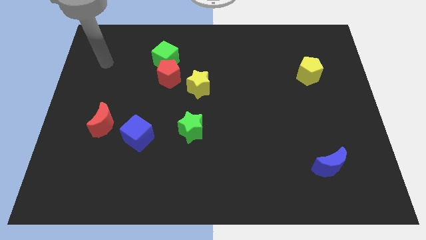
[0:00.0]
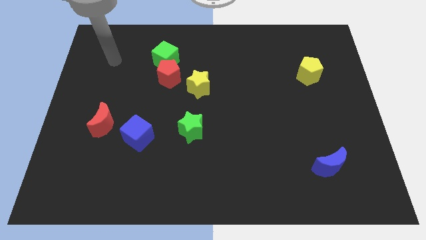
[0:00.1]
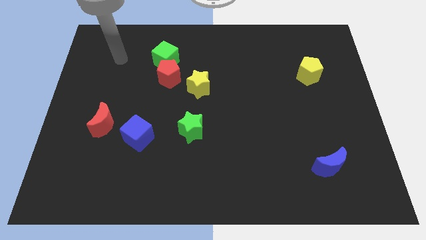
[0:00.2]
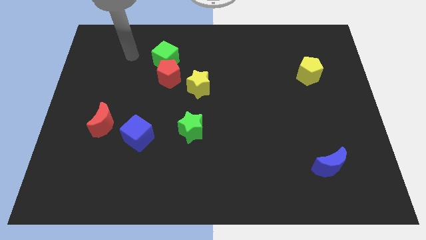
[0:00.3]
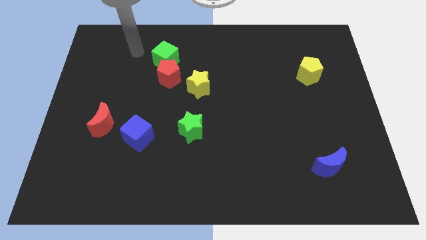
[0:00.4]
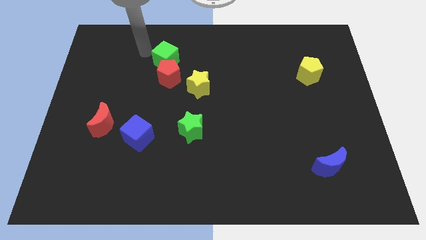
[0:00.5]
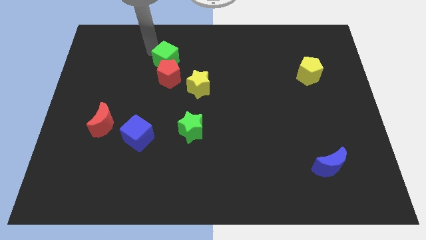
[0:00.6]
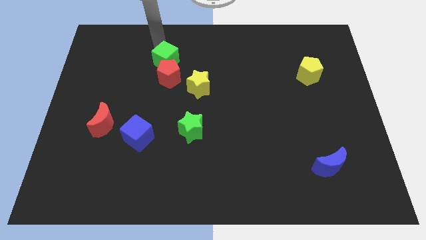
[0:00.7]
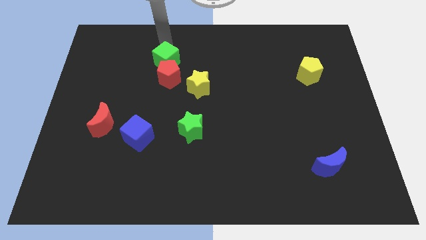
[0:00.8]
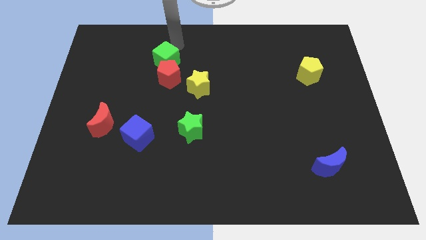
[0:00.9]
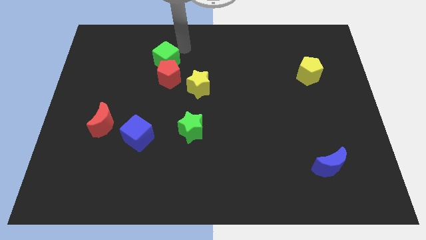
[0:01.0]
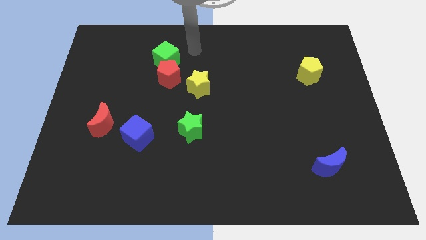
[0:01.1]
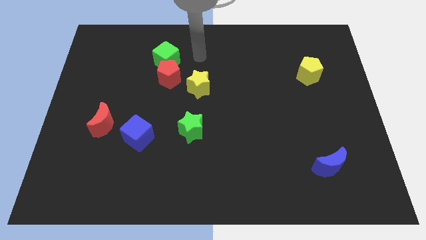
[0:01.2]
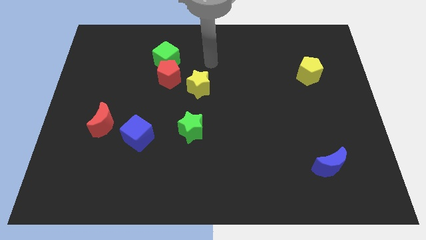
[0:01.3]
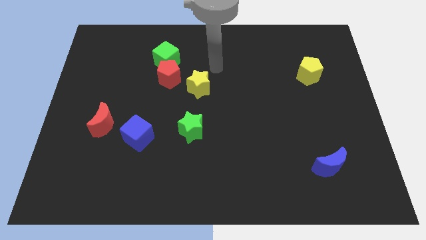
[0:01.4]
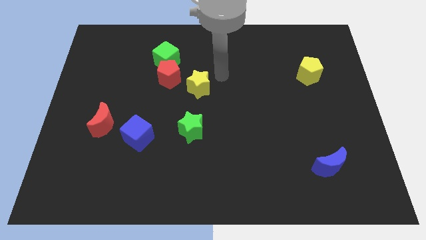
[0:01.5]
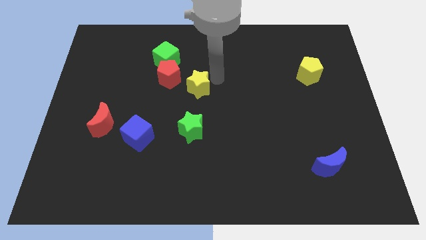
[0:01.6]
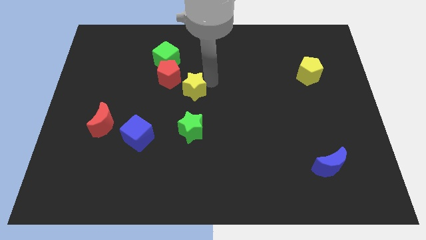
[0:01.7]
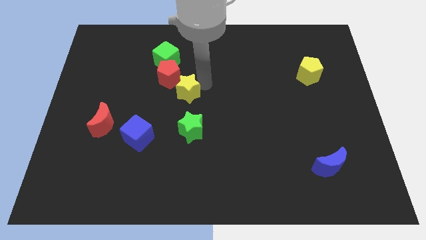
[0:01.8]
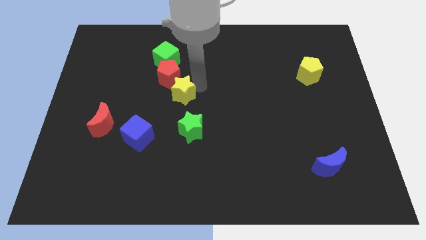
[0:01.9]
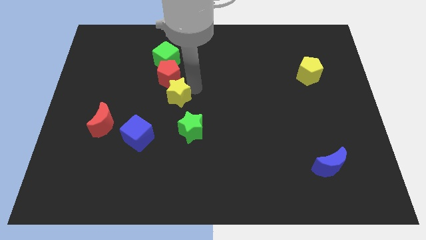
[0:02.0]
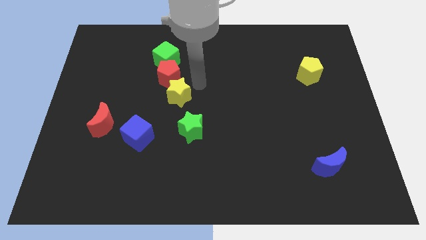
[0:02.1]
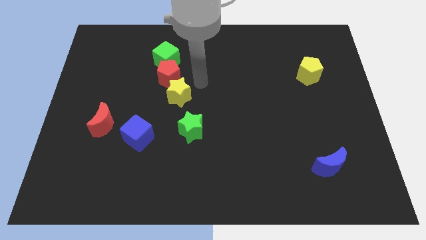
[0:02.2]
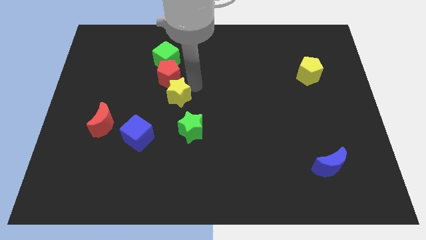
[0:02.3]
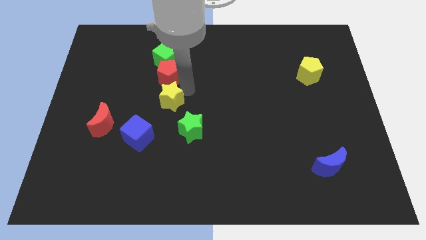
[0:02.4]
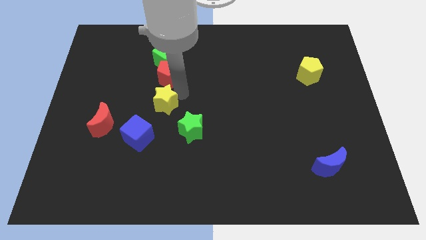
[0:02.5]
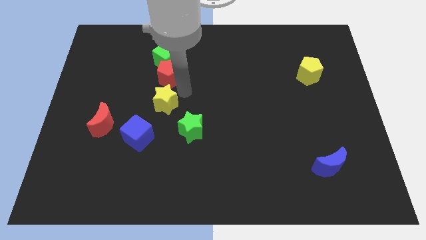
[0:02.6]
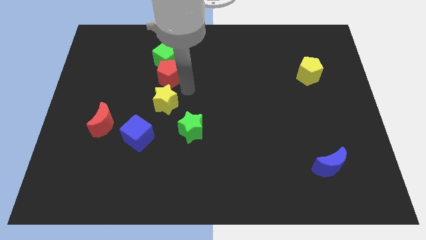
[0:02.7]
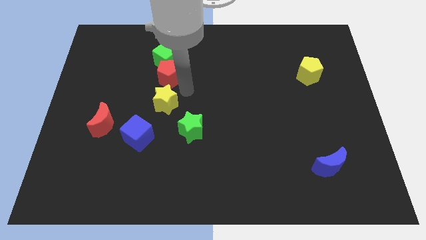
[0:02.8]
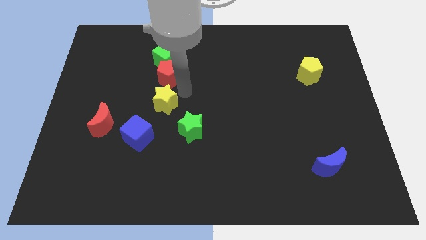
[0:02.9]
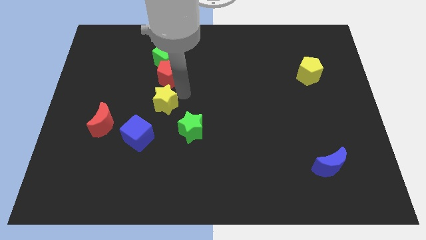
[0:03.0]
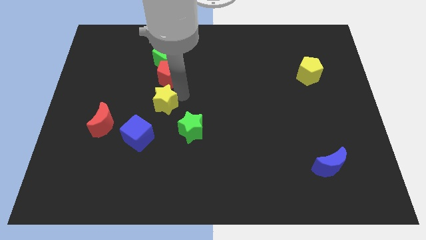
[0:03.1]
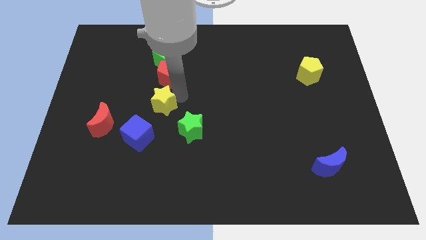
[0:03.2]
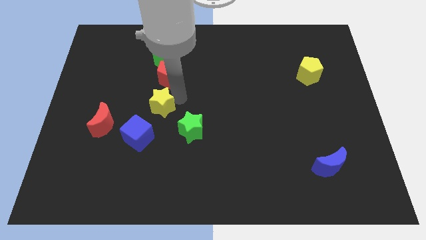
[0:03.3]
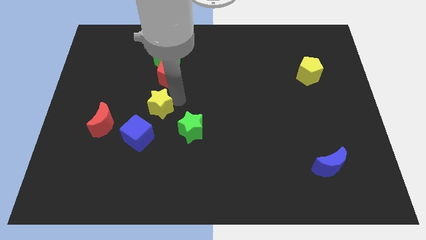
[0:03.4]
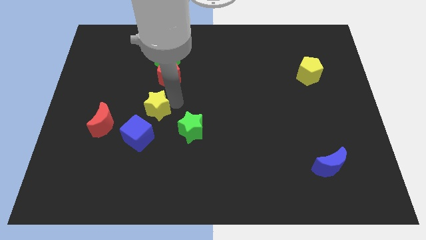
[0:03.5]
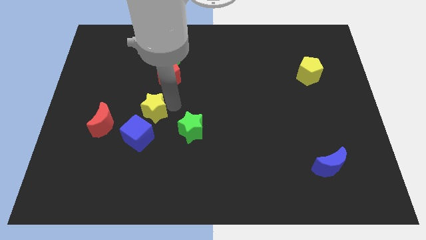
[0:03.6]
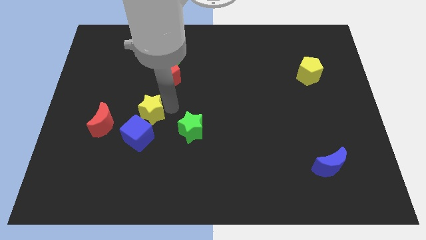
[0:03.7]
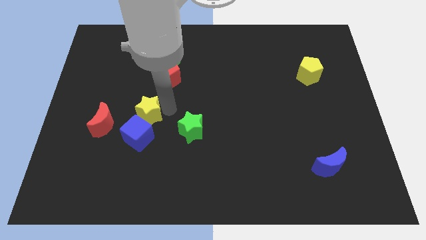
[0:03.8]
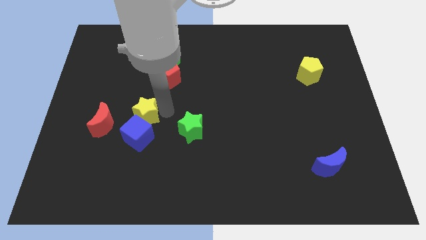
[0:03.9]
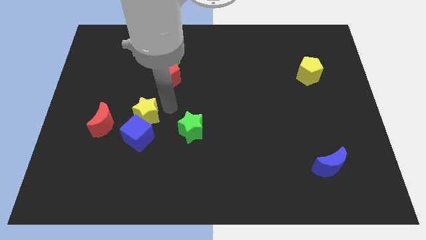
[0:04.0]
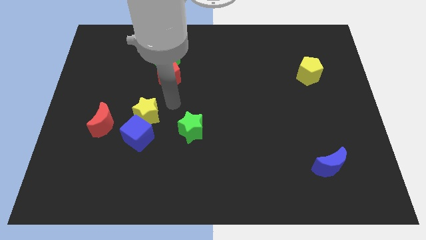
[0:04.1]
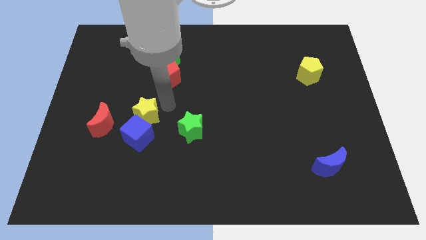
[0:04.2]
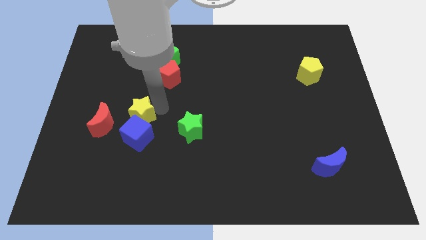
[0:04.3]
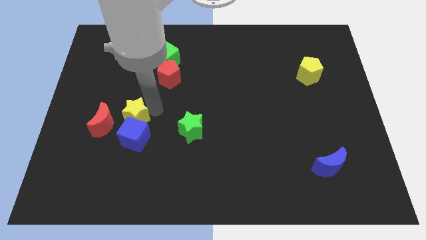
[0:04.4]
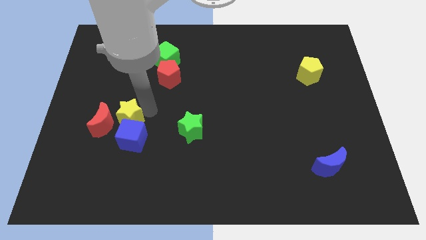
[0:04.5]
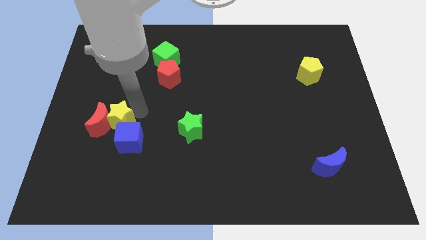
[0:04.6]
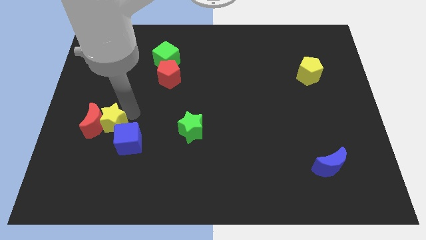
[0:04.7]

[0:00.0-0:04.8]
push the yellow star down and to the left

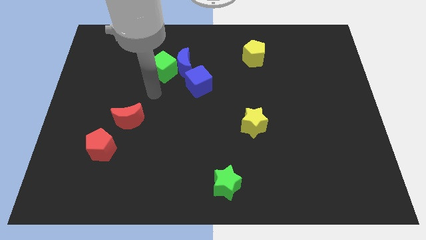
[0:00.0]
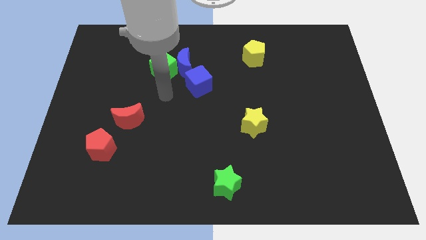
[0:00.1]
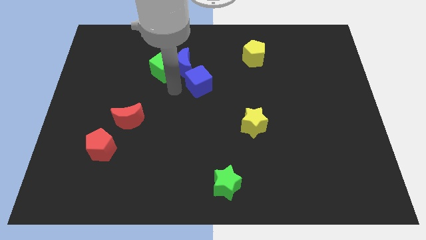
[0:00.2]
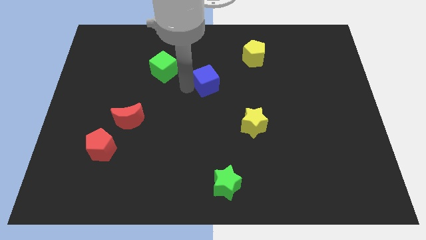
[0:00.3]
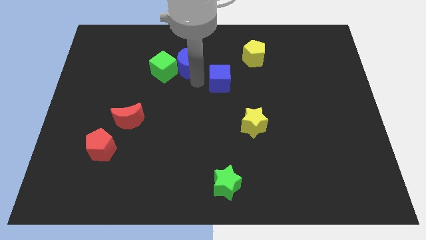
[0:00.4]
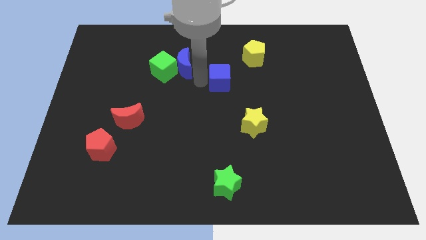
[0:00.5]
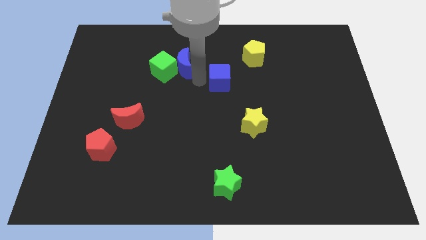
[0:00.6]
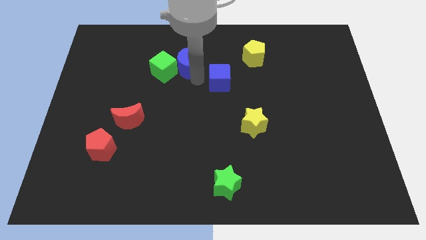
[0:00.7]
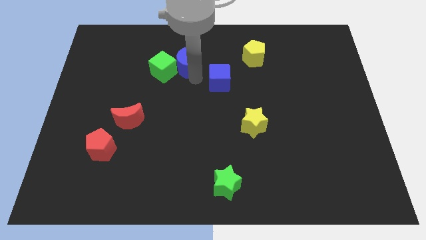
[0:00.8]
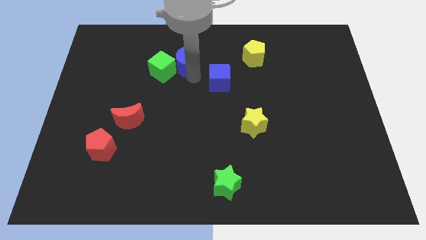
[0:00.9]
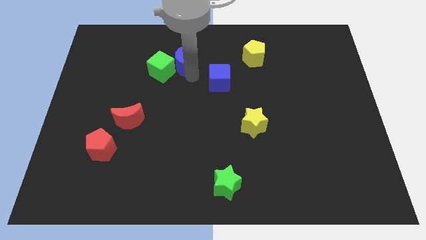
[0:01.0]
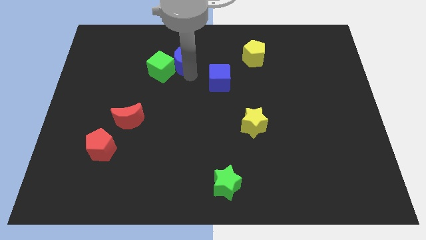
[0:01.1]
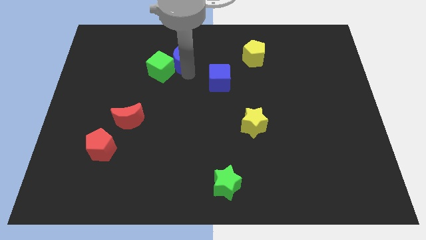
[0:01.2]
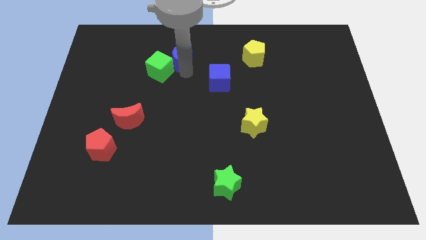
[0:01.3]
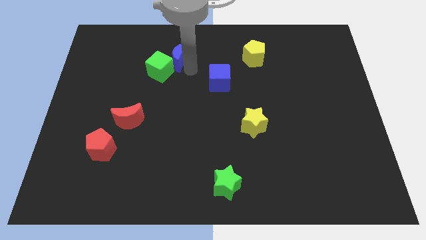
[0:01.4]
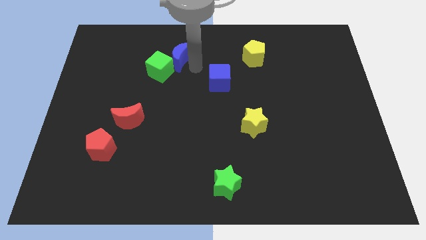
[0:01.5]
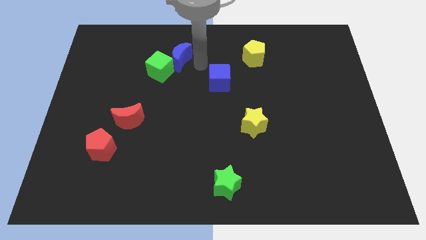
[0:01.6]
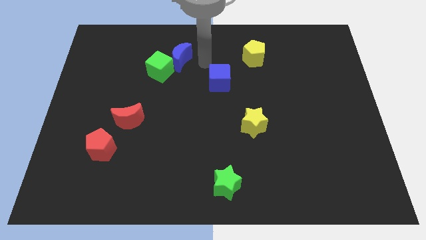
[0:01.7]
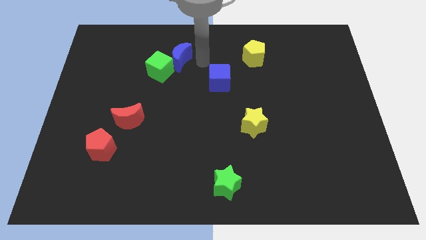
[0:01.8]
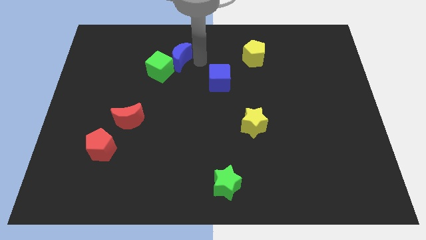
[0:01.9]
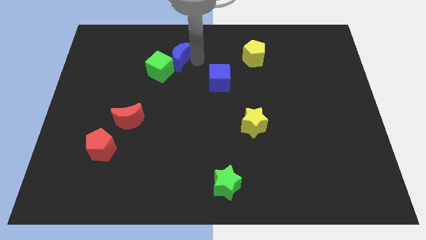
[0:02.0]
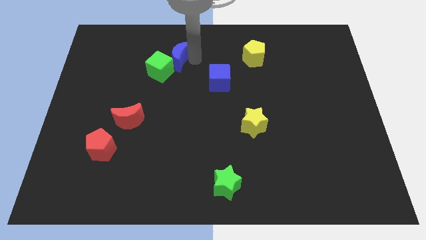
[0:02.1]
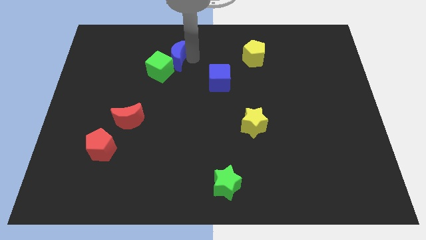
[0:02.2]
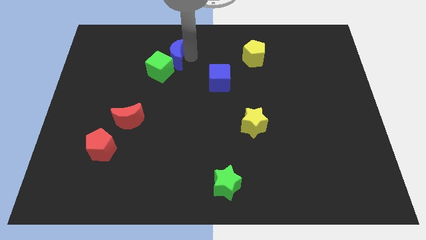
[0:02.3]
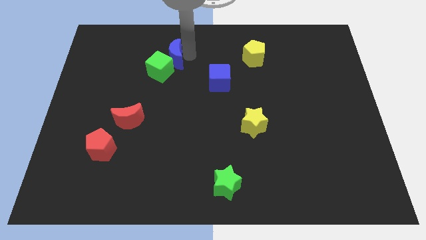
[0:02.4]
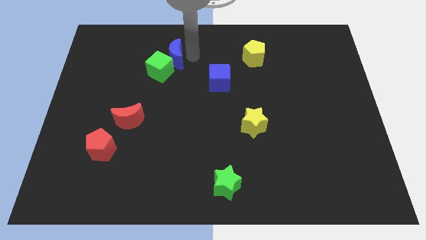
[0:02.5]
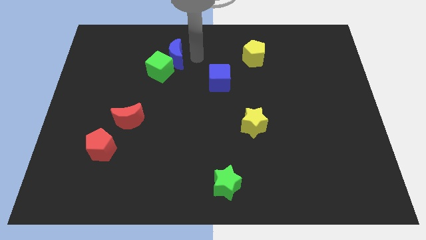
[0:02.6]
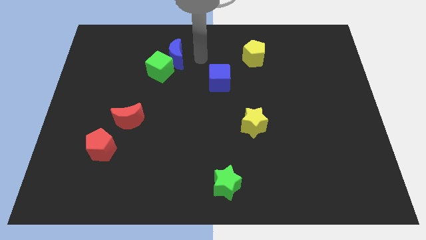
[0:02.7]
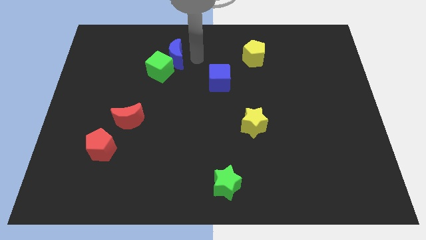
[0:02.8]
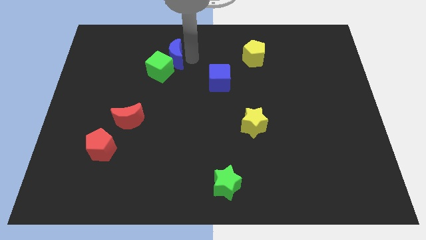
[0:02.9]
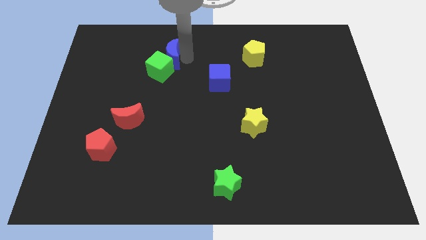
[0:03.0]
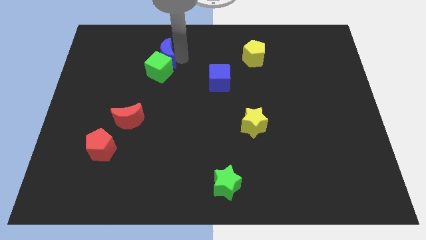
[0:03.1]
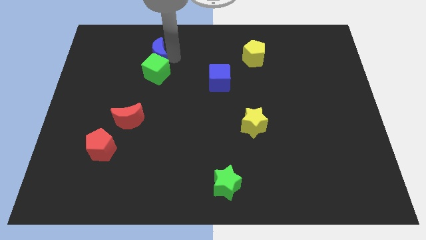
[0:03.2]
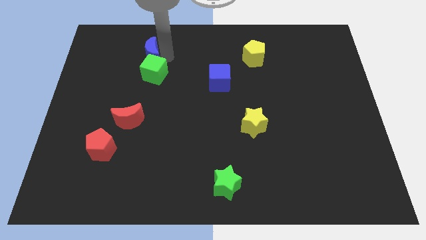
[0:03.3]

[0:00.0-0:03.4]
move the blue moon a bit to the left
